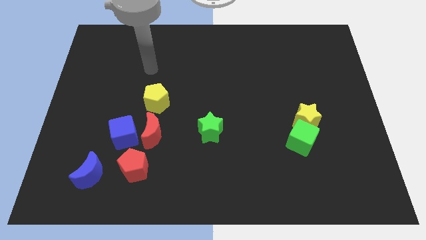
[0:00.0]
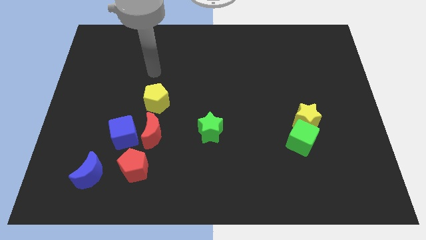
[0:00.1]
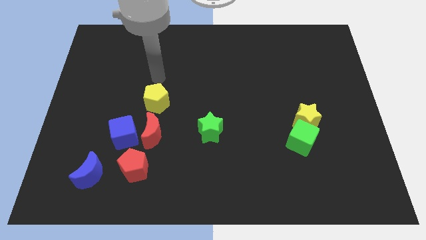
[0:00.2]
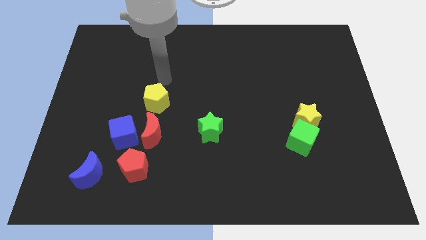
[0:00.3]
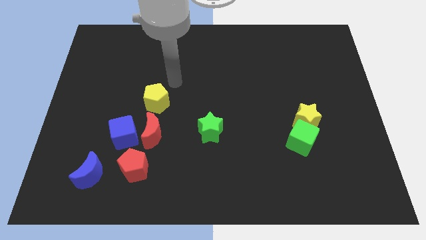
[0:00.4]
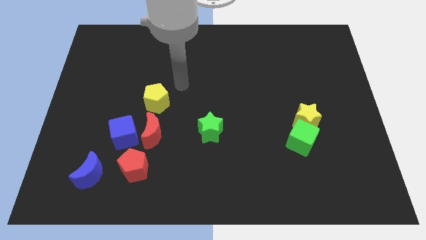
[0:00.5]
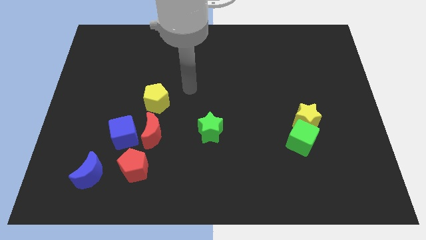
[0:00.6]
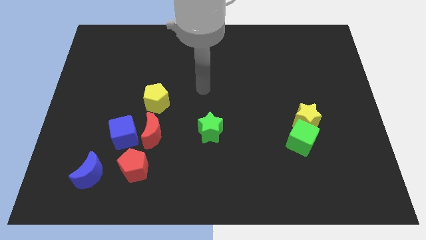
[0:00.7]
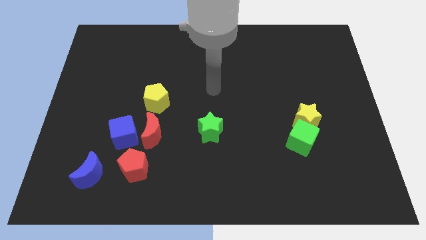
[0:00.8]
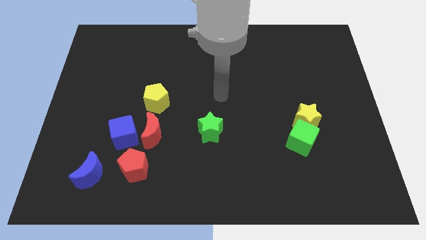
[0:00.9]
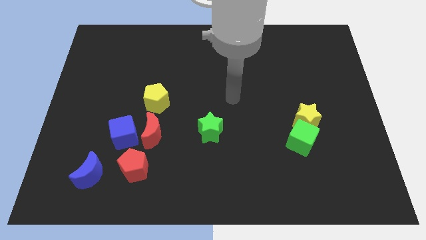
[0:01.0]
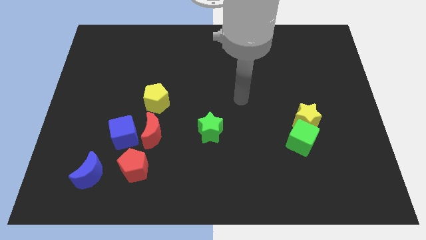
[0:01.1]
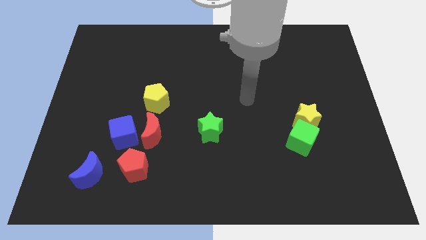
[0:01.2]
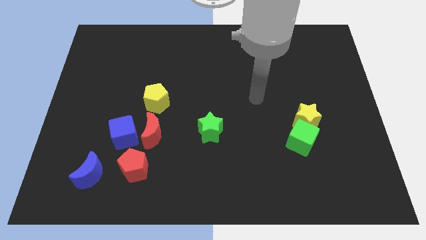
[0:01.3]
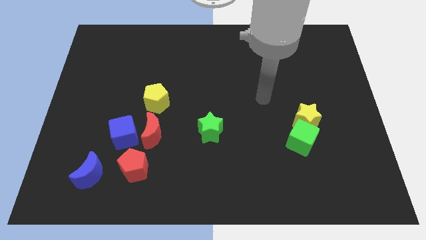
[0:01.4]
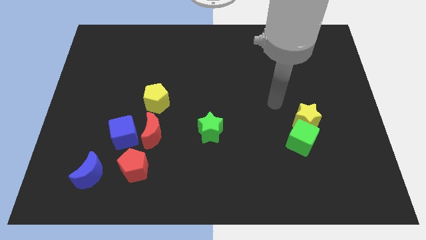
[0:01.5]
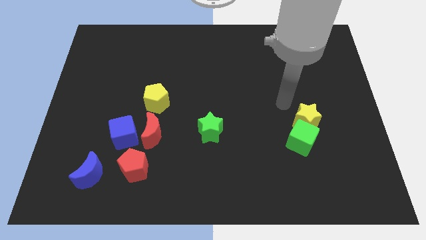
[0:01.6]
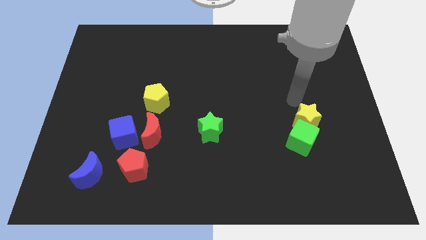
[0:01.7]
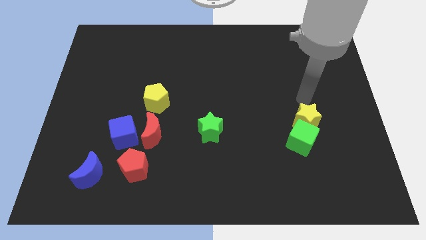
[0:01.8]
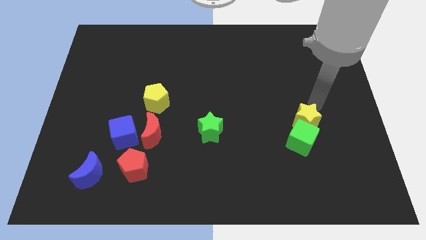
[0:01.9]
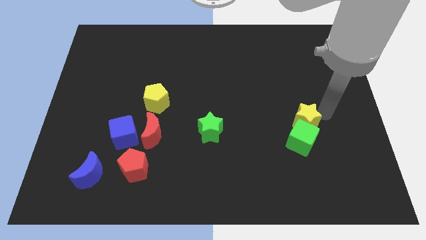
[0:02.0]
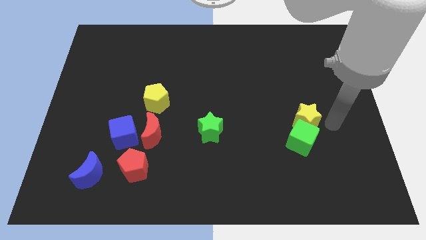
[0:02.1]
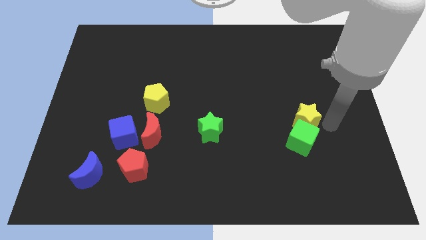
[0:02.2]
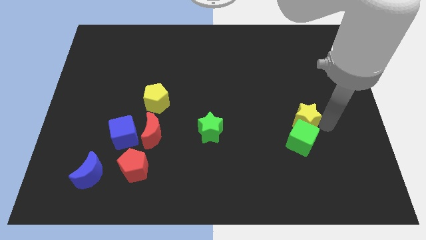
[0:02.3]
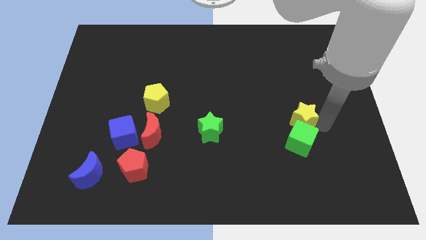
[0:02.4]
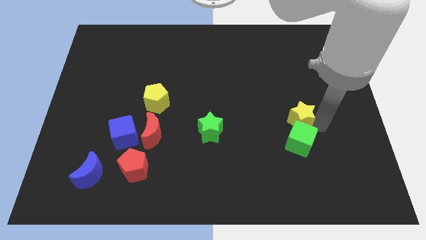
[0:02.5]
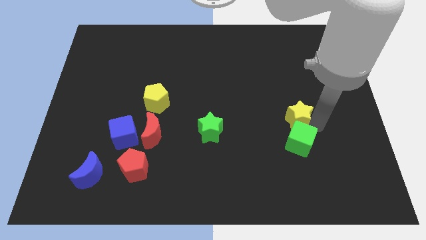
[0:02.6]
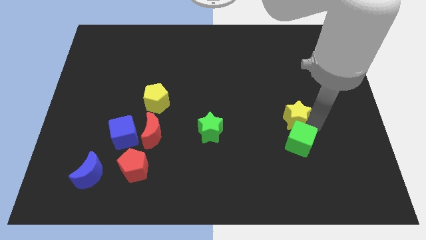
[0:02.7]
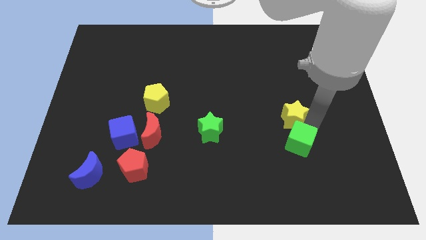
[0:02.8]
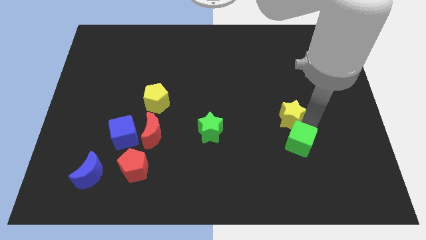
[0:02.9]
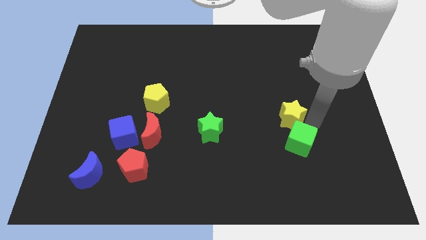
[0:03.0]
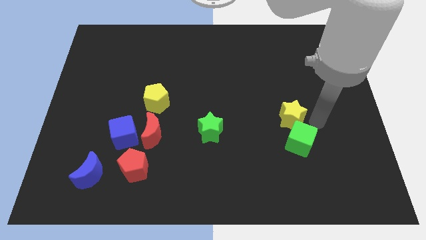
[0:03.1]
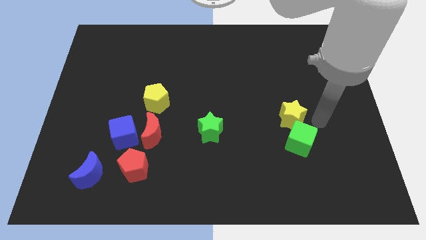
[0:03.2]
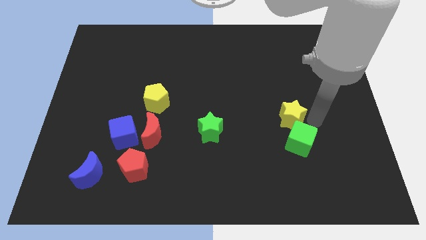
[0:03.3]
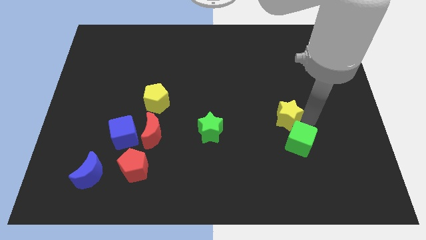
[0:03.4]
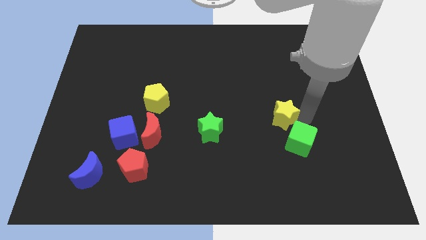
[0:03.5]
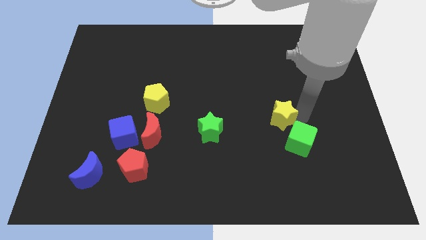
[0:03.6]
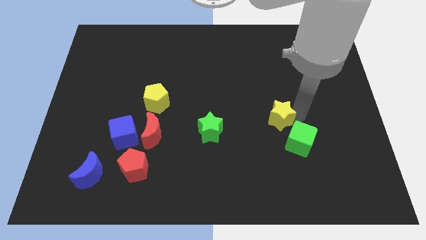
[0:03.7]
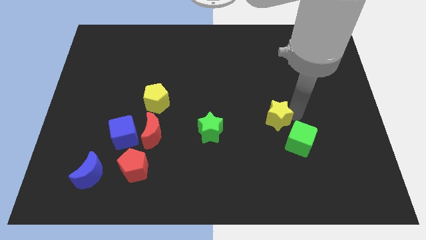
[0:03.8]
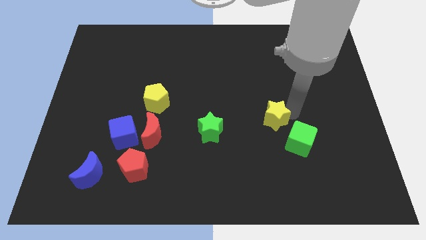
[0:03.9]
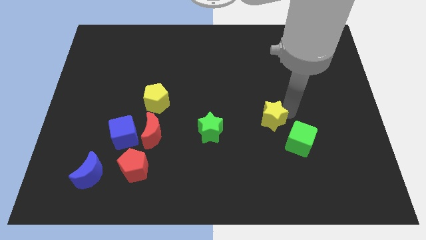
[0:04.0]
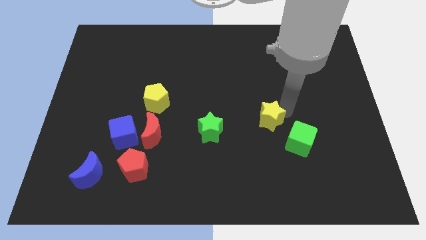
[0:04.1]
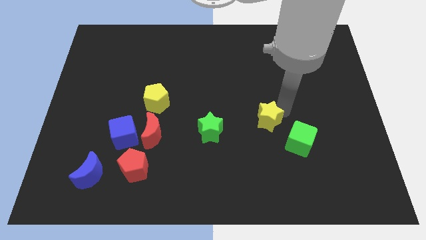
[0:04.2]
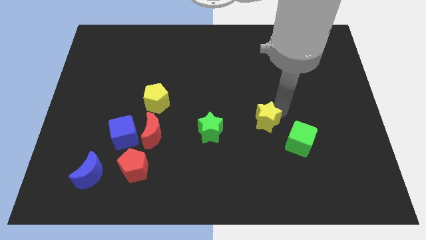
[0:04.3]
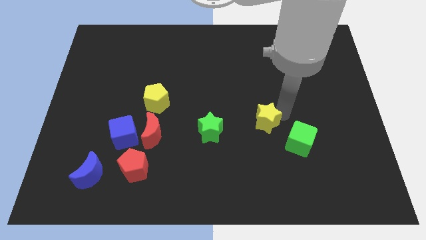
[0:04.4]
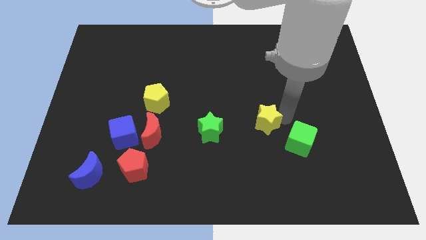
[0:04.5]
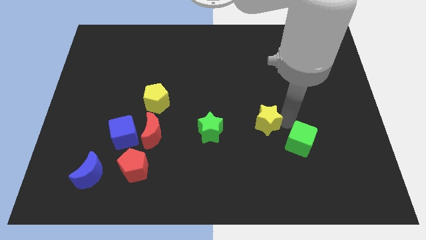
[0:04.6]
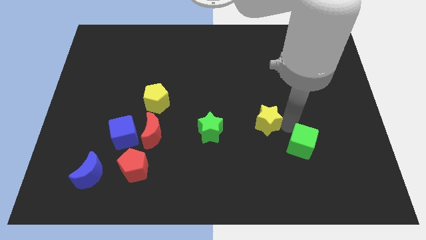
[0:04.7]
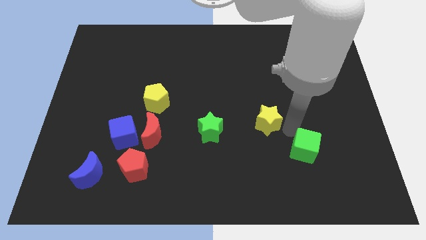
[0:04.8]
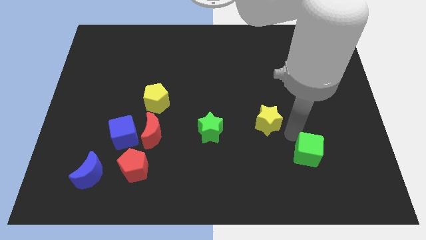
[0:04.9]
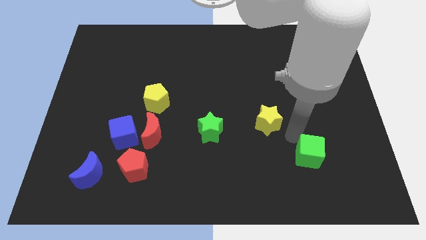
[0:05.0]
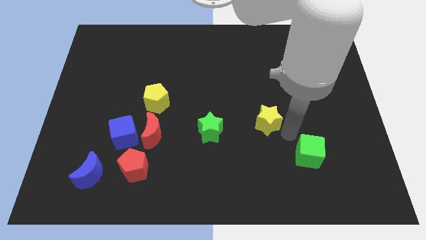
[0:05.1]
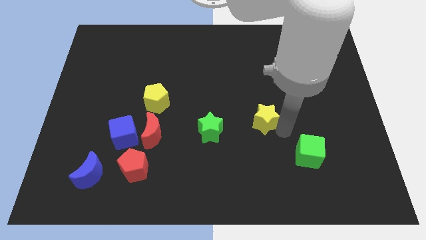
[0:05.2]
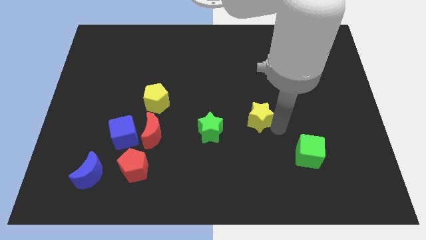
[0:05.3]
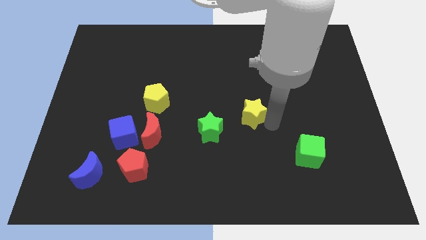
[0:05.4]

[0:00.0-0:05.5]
move the yellow star to the top right side of the green star

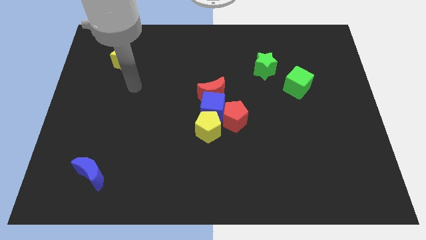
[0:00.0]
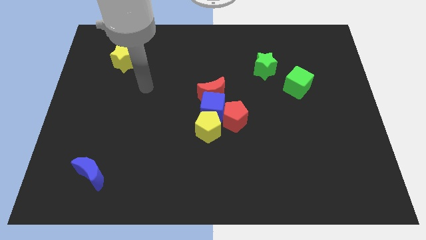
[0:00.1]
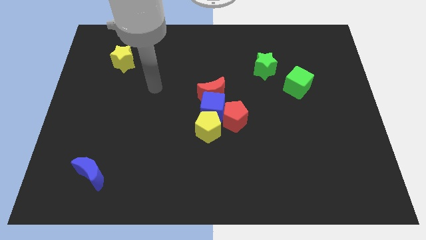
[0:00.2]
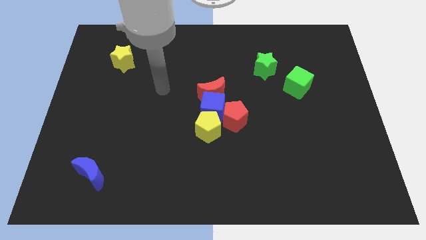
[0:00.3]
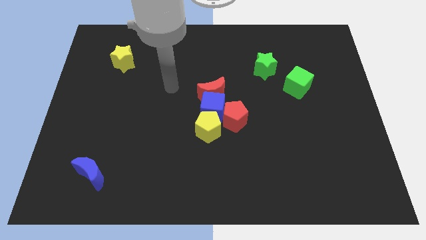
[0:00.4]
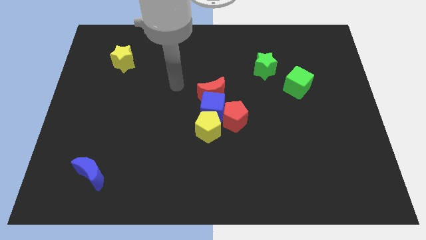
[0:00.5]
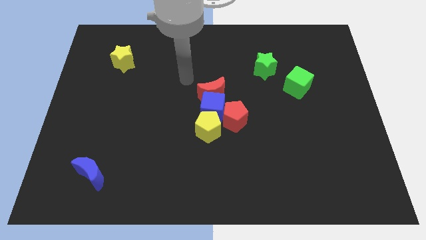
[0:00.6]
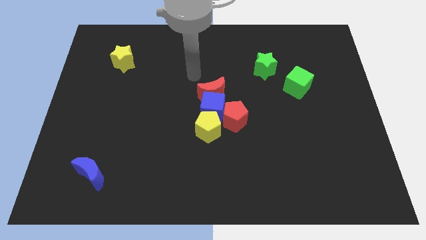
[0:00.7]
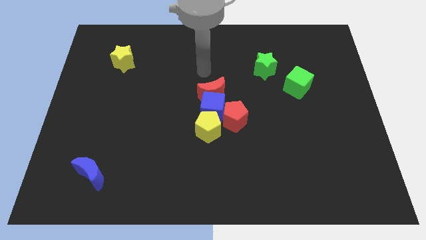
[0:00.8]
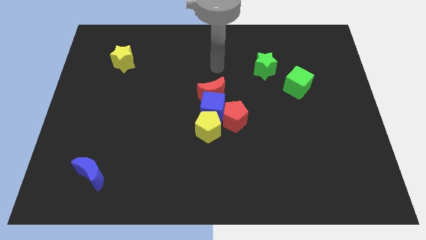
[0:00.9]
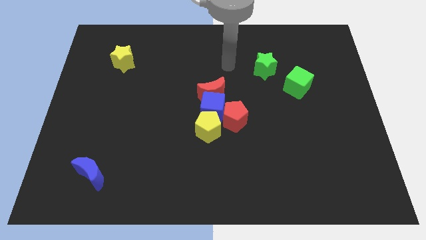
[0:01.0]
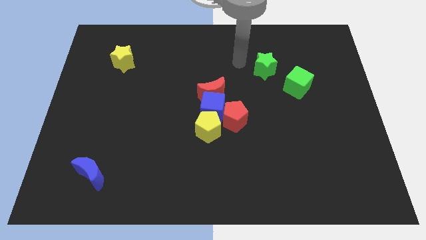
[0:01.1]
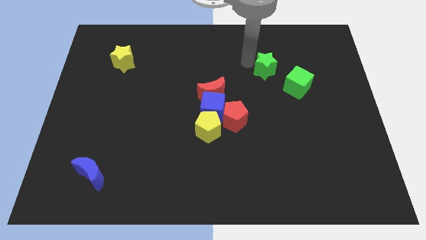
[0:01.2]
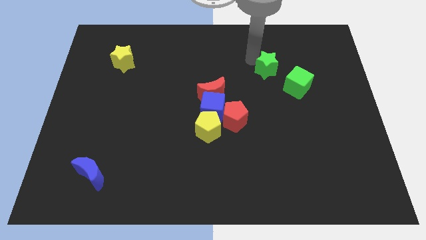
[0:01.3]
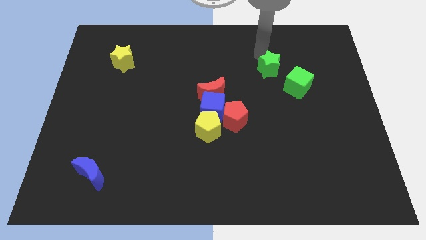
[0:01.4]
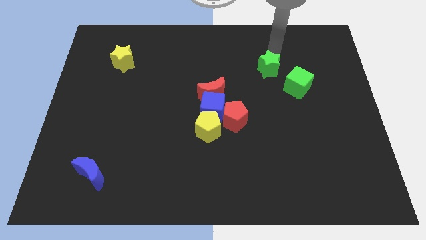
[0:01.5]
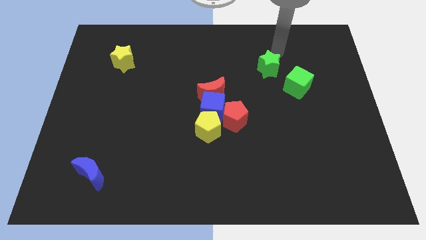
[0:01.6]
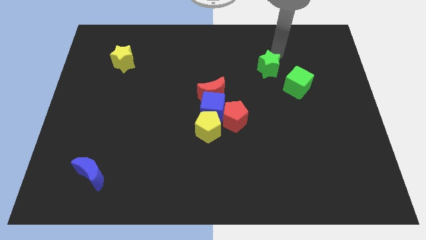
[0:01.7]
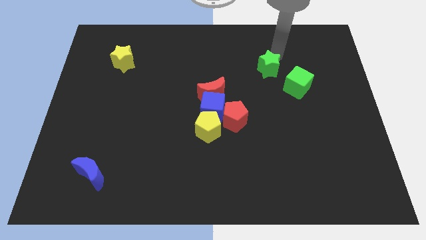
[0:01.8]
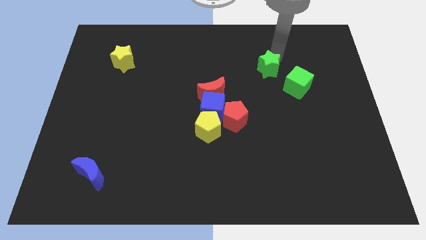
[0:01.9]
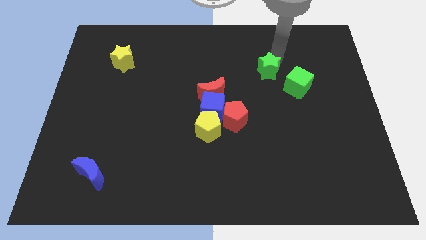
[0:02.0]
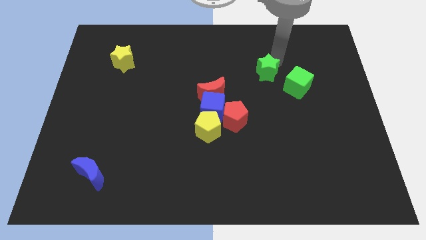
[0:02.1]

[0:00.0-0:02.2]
put the green star to the left side of the green cube
